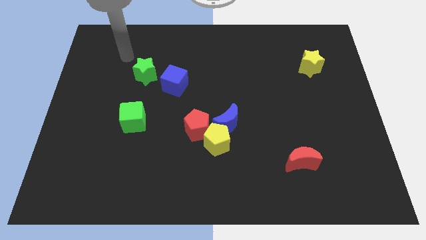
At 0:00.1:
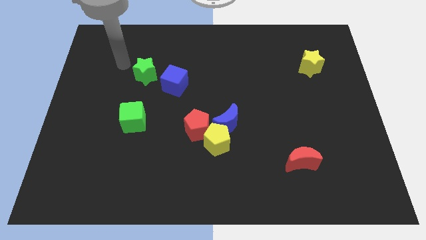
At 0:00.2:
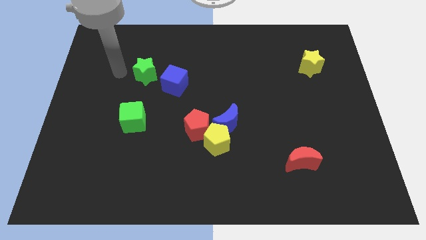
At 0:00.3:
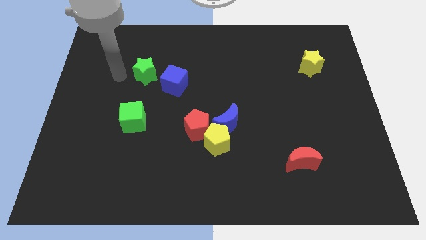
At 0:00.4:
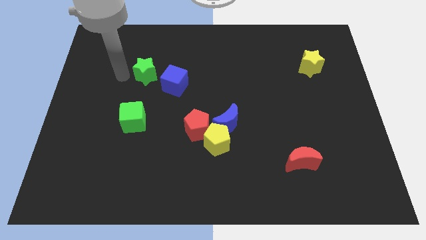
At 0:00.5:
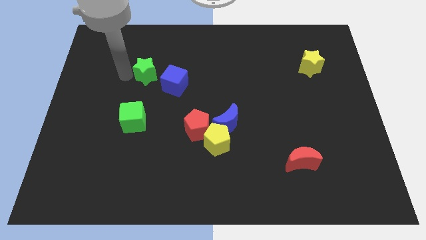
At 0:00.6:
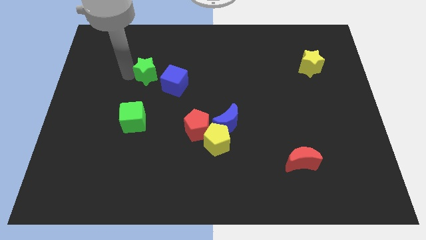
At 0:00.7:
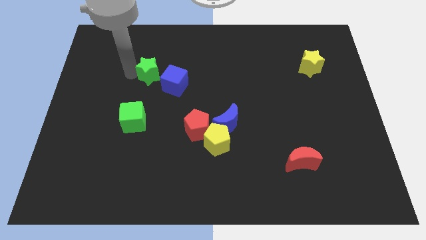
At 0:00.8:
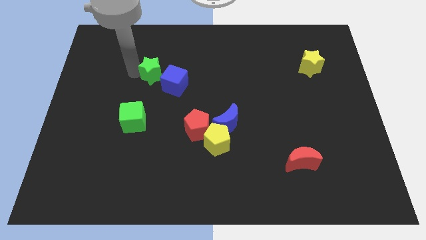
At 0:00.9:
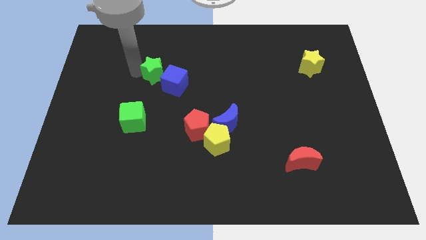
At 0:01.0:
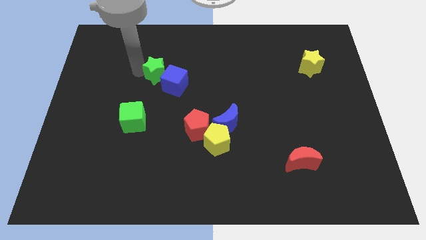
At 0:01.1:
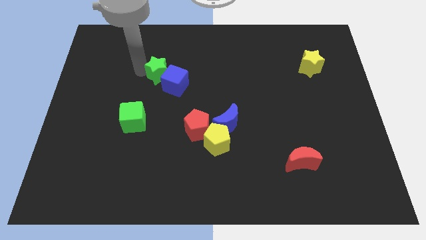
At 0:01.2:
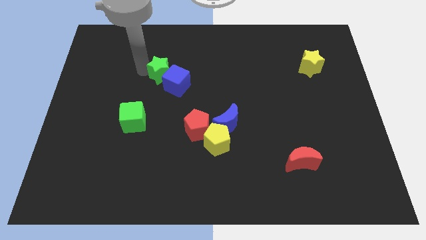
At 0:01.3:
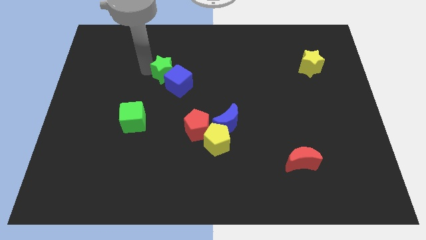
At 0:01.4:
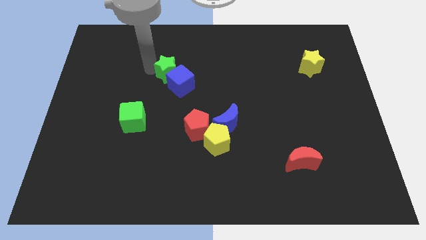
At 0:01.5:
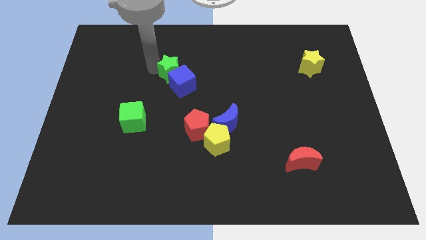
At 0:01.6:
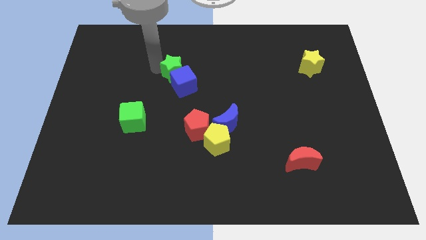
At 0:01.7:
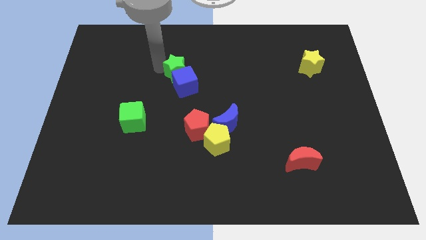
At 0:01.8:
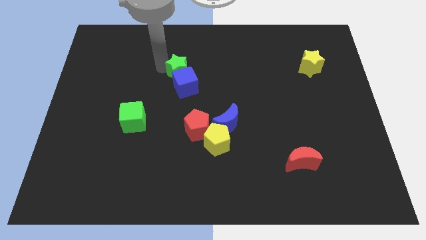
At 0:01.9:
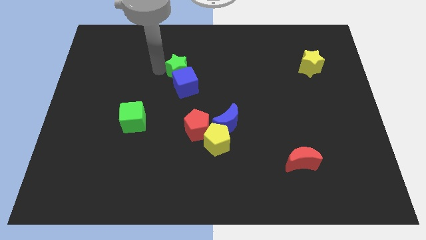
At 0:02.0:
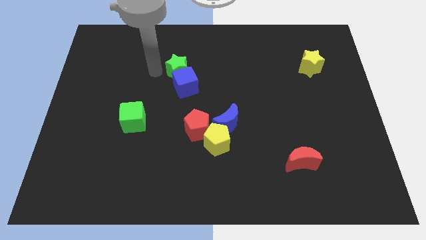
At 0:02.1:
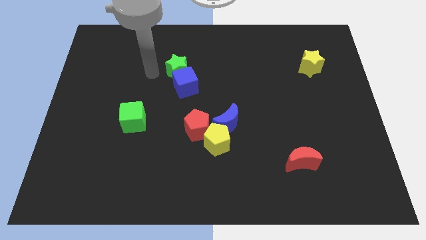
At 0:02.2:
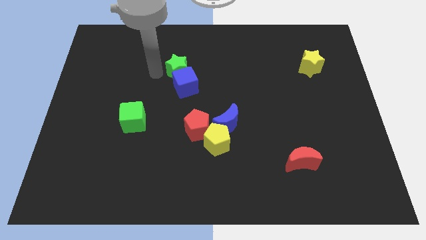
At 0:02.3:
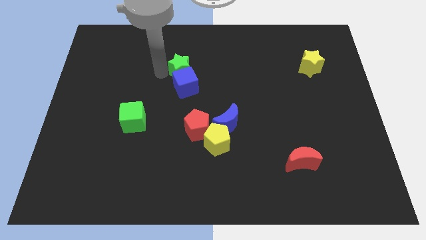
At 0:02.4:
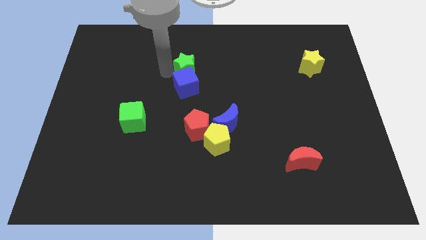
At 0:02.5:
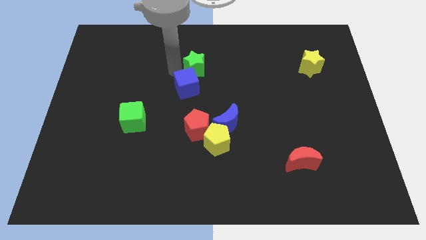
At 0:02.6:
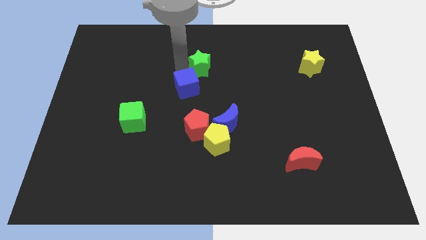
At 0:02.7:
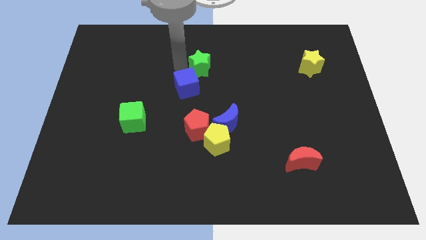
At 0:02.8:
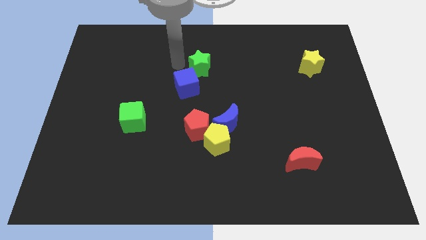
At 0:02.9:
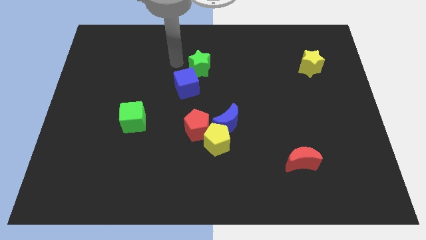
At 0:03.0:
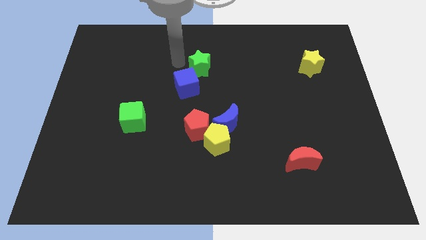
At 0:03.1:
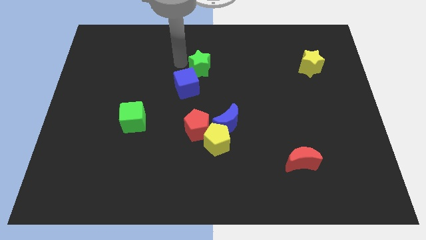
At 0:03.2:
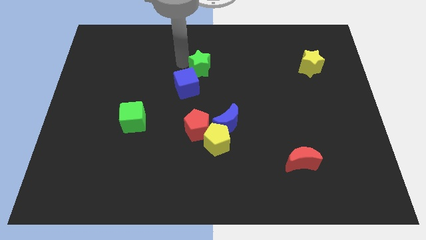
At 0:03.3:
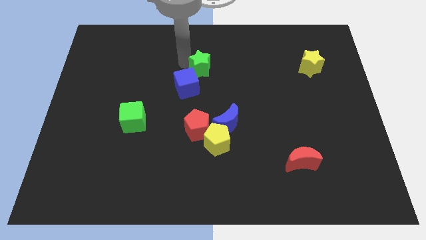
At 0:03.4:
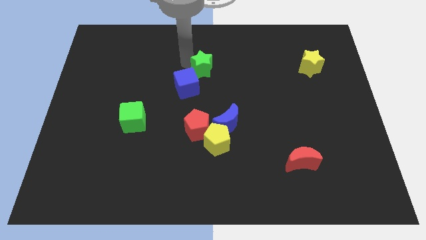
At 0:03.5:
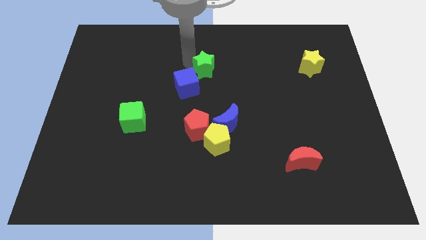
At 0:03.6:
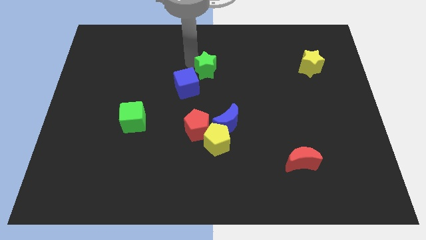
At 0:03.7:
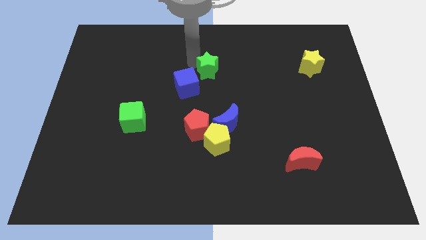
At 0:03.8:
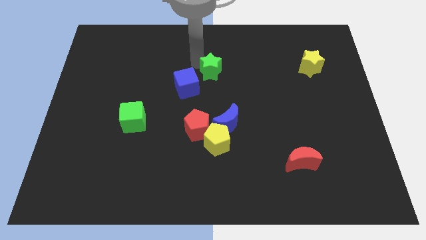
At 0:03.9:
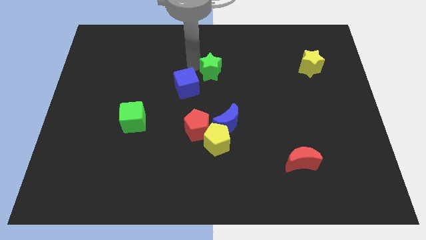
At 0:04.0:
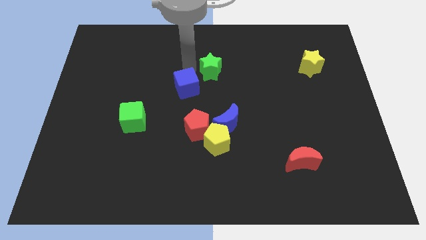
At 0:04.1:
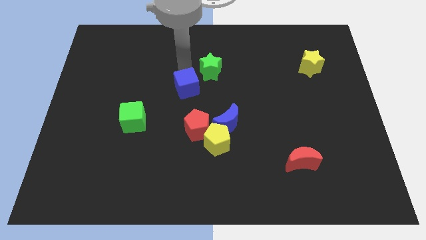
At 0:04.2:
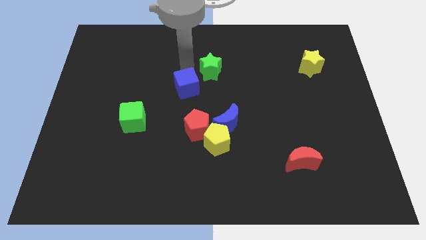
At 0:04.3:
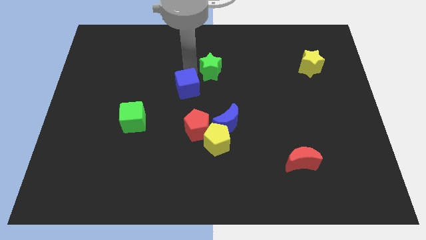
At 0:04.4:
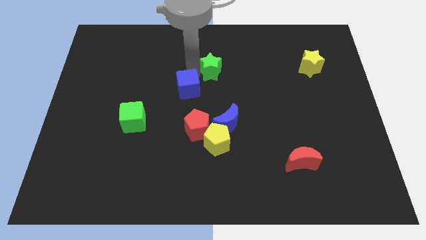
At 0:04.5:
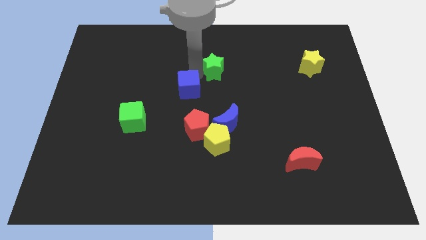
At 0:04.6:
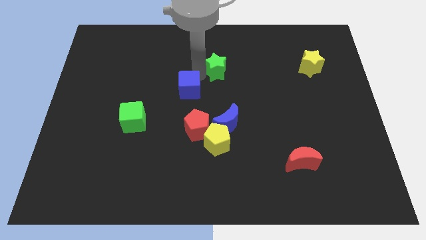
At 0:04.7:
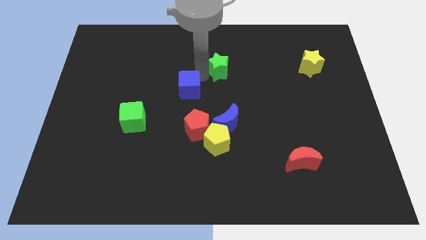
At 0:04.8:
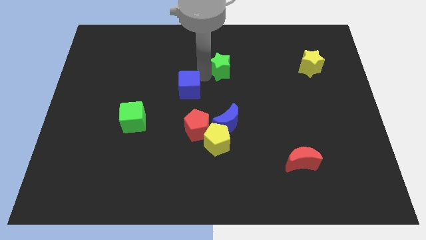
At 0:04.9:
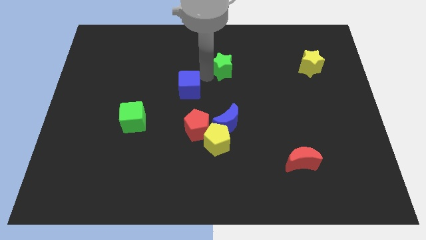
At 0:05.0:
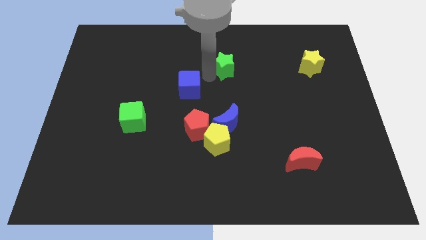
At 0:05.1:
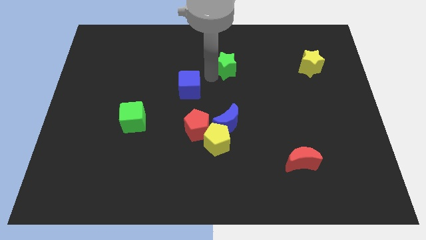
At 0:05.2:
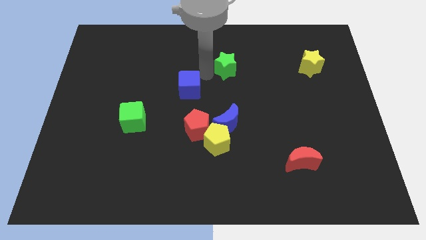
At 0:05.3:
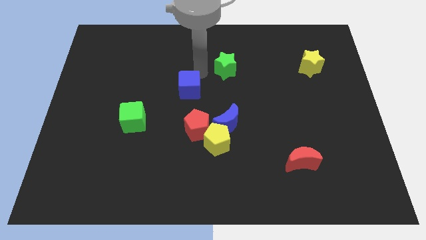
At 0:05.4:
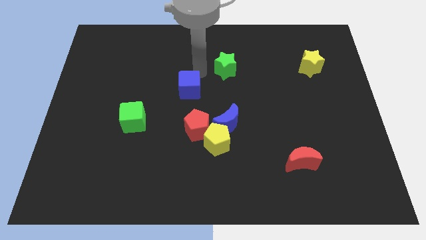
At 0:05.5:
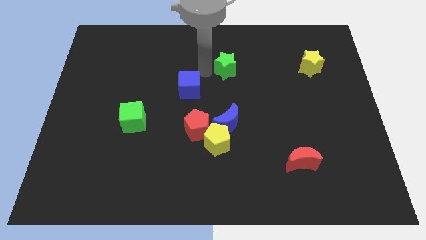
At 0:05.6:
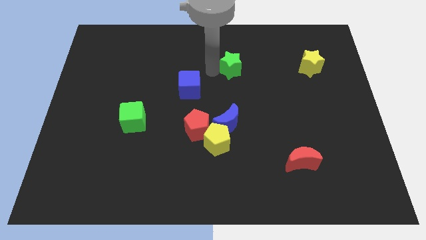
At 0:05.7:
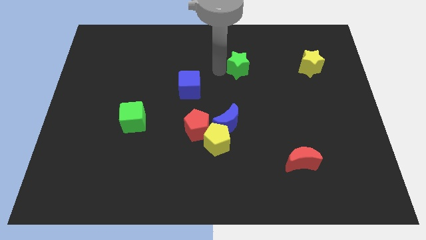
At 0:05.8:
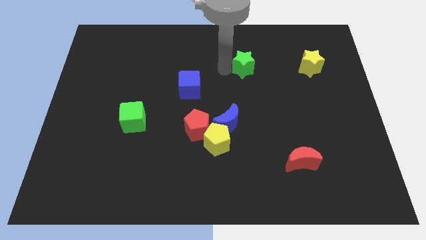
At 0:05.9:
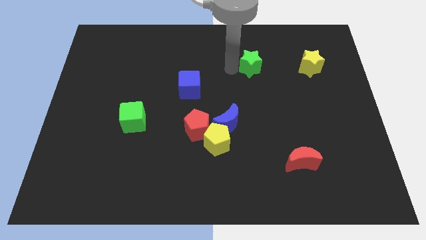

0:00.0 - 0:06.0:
move the green star just left of the yellow star

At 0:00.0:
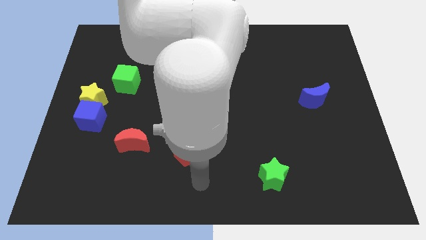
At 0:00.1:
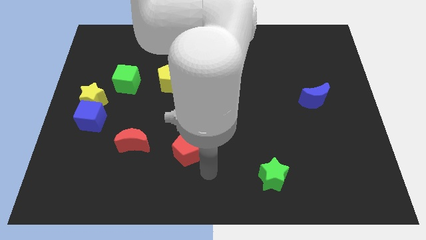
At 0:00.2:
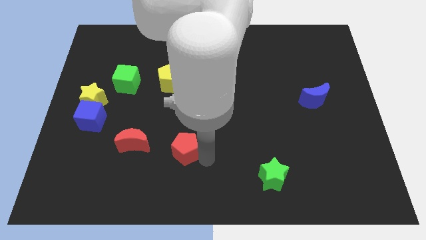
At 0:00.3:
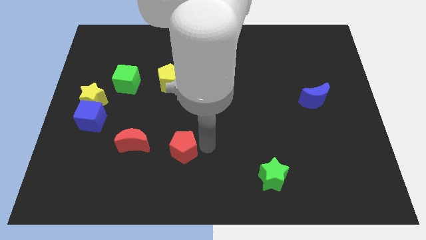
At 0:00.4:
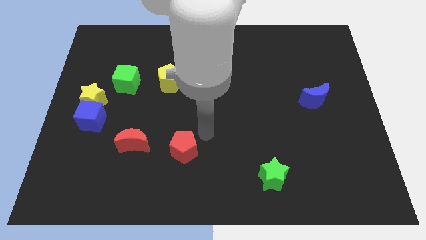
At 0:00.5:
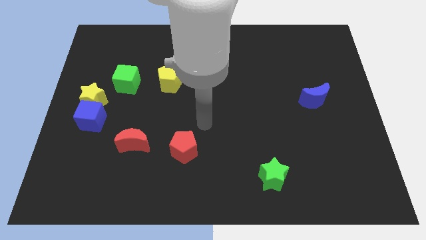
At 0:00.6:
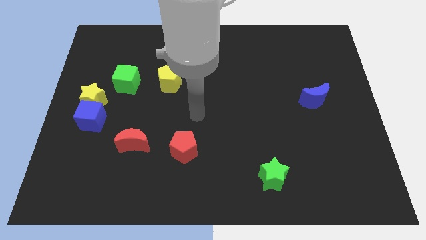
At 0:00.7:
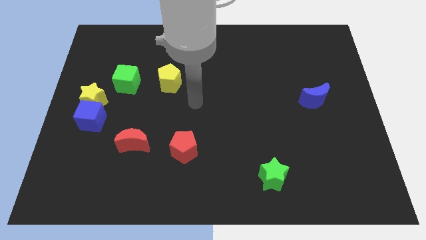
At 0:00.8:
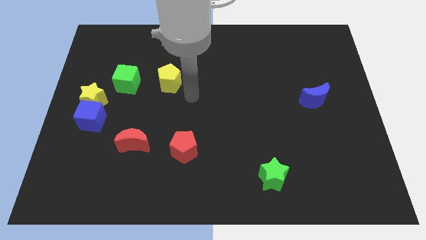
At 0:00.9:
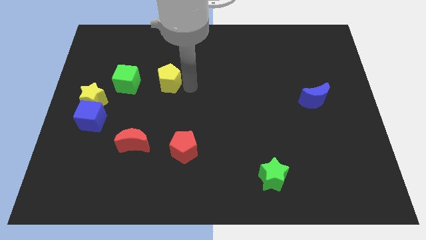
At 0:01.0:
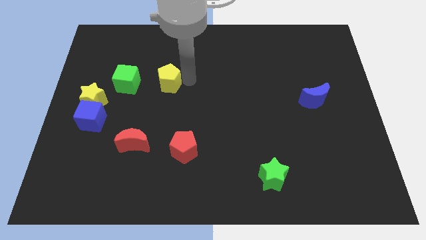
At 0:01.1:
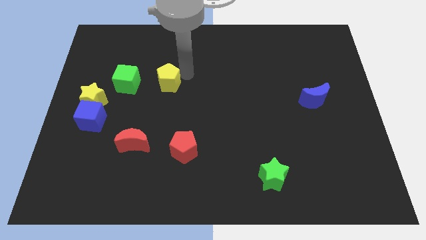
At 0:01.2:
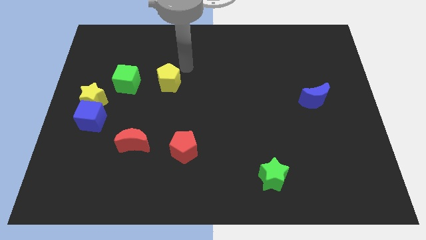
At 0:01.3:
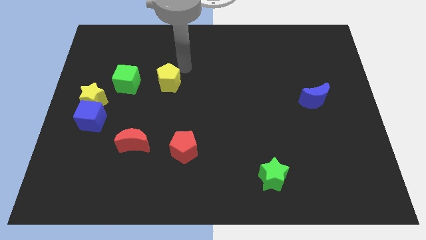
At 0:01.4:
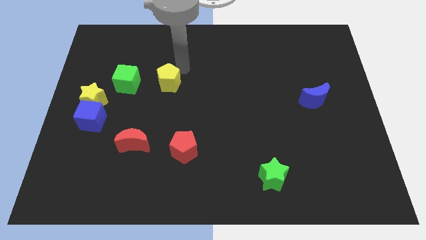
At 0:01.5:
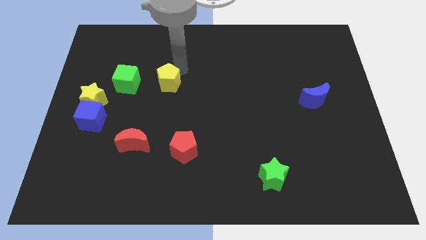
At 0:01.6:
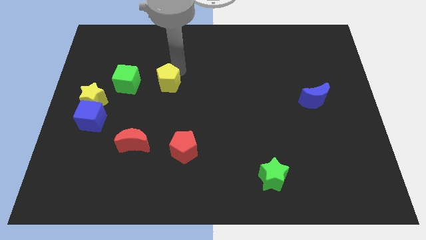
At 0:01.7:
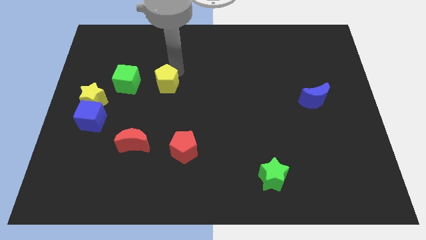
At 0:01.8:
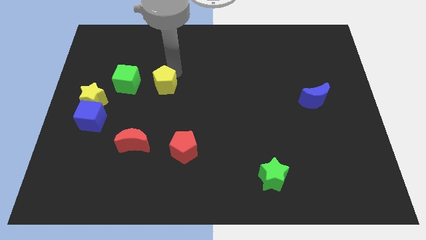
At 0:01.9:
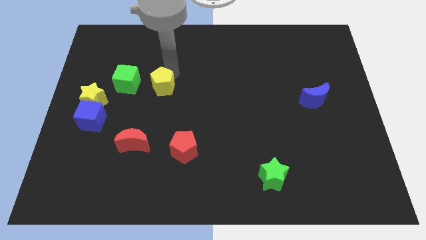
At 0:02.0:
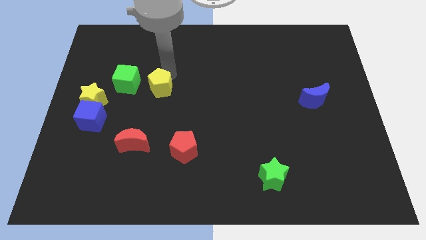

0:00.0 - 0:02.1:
push the yellow pentagon to the bottom right of the green cube
